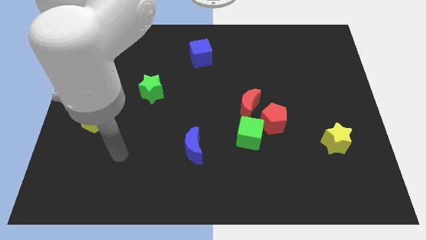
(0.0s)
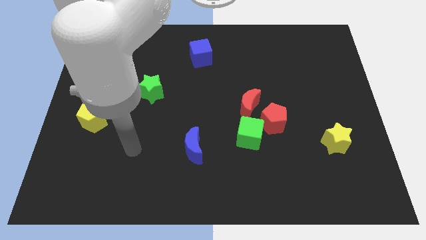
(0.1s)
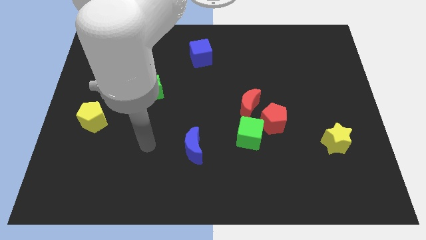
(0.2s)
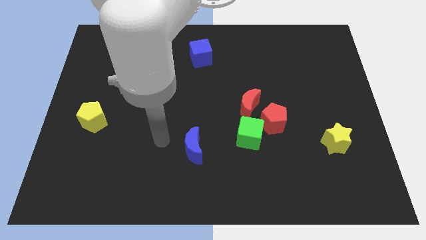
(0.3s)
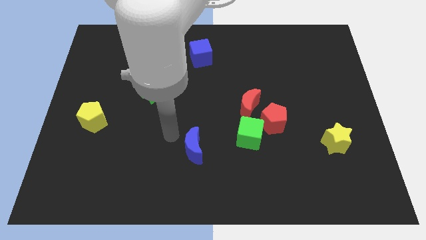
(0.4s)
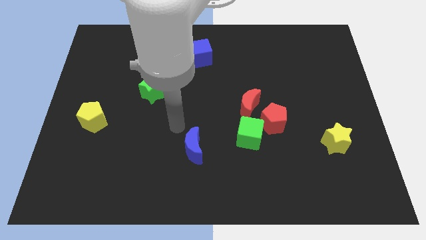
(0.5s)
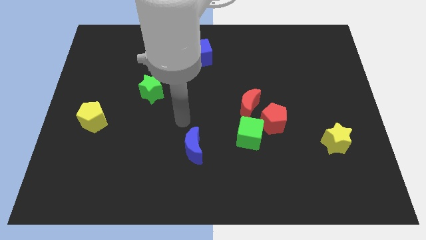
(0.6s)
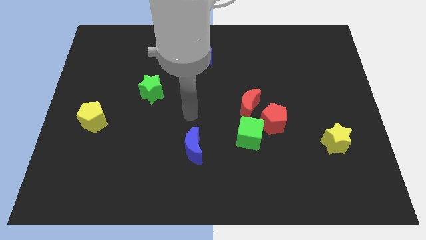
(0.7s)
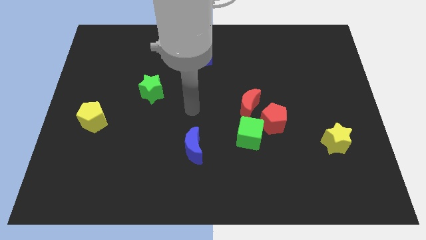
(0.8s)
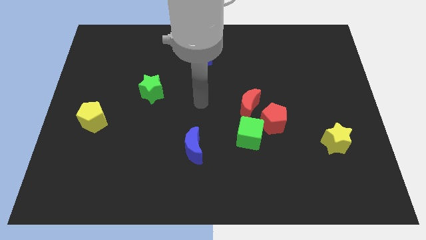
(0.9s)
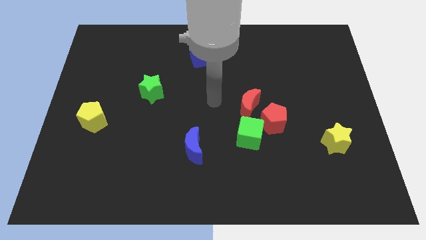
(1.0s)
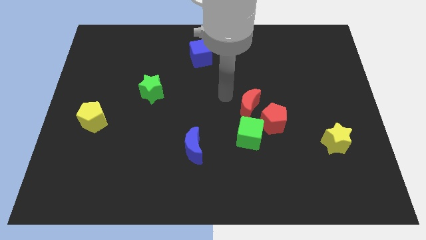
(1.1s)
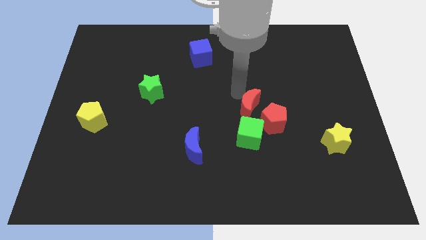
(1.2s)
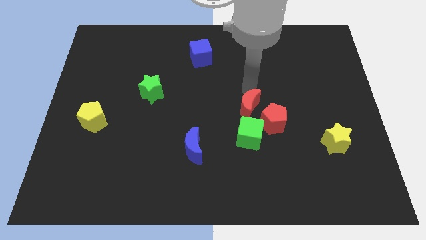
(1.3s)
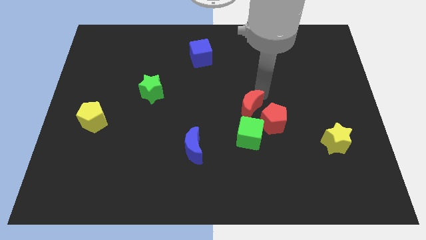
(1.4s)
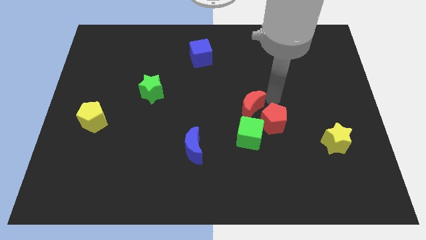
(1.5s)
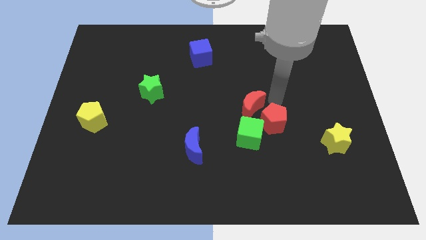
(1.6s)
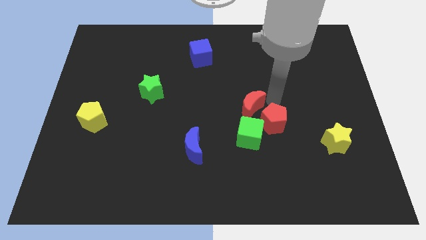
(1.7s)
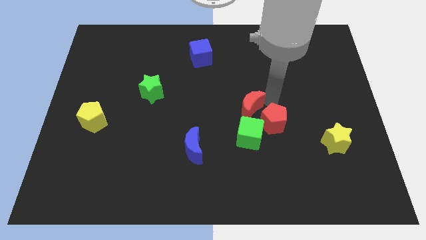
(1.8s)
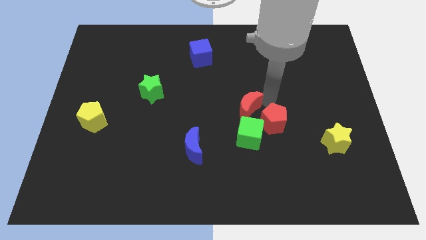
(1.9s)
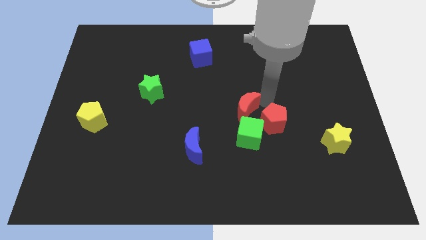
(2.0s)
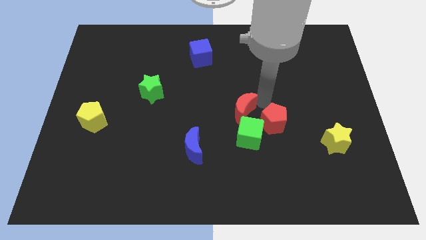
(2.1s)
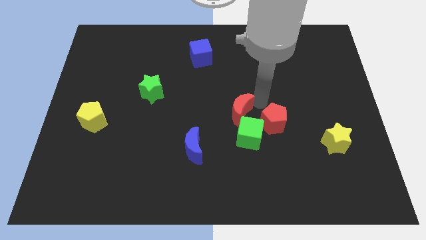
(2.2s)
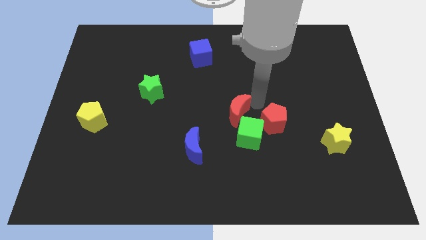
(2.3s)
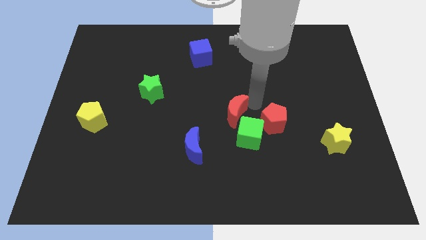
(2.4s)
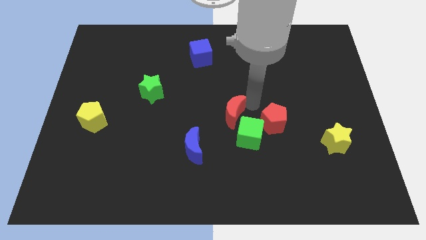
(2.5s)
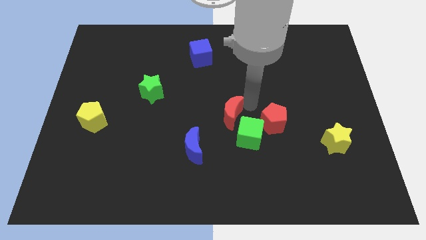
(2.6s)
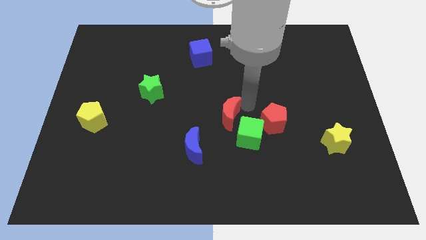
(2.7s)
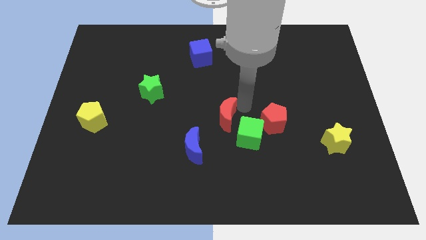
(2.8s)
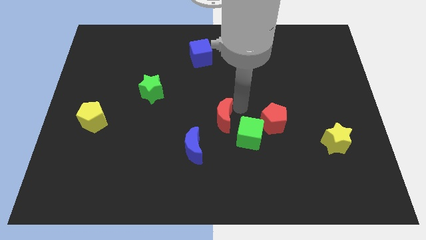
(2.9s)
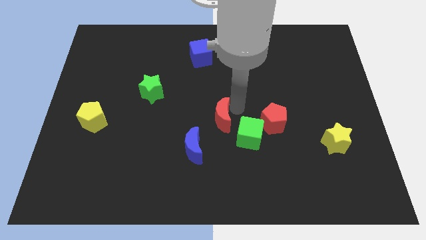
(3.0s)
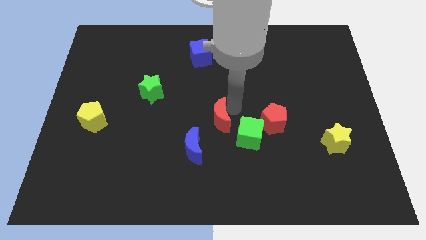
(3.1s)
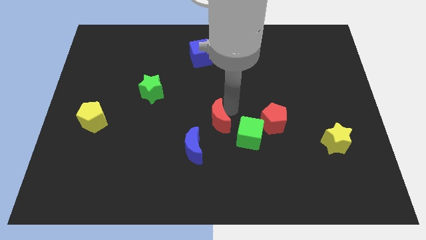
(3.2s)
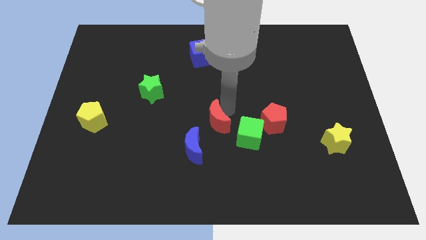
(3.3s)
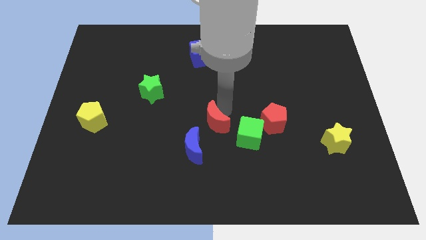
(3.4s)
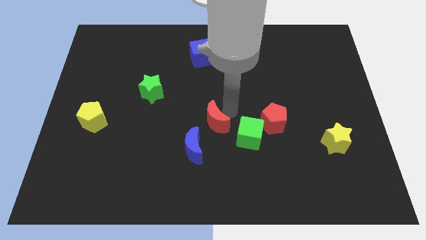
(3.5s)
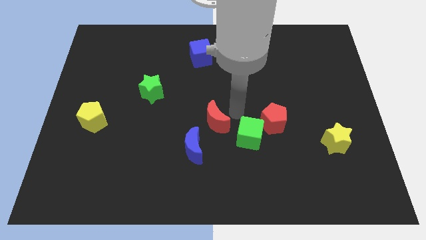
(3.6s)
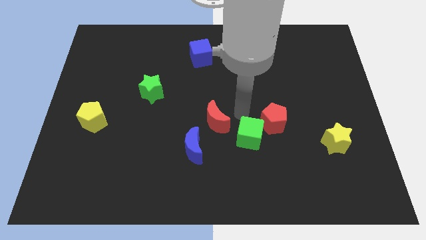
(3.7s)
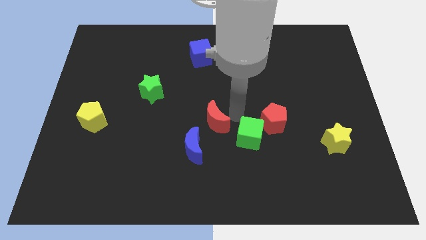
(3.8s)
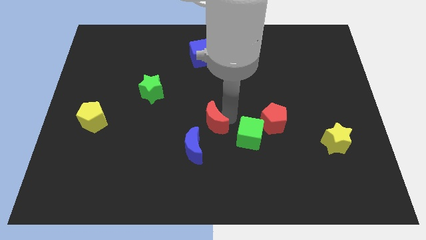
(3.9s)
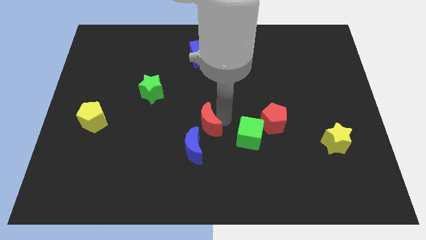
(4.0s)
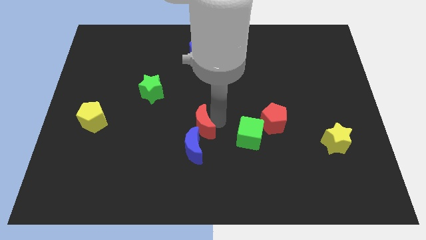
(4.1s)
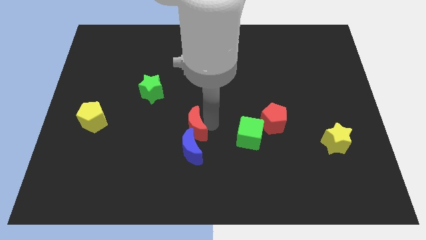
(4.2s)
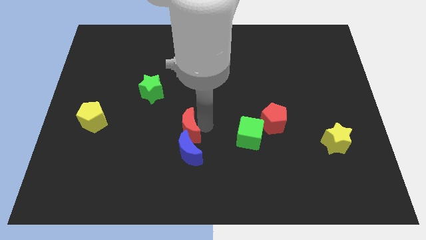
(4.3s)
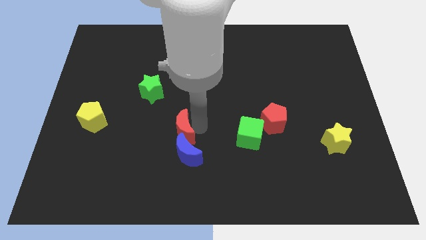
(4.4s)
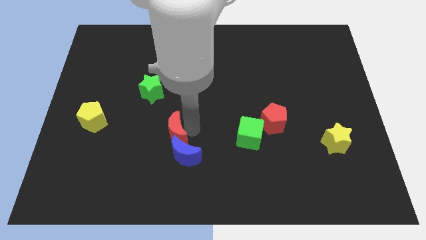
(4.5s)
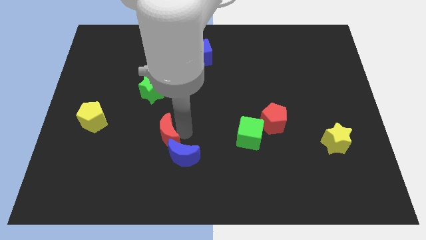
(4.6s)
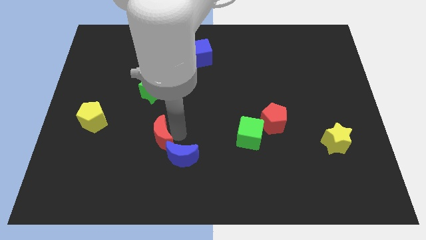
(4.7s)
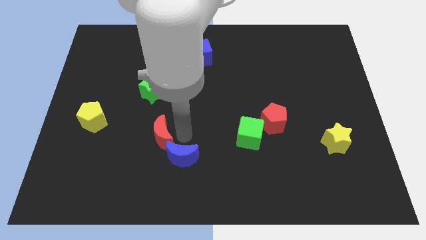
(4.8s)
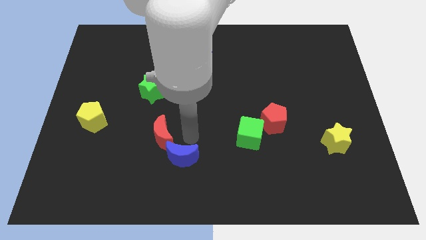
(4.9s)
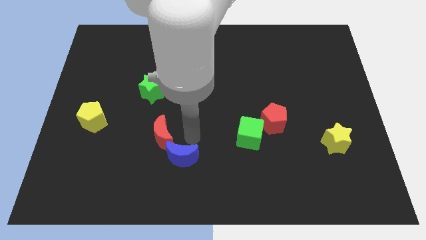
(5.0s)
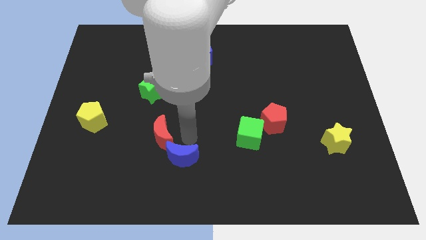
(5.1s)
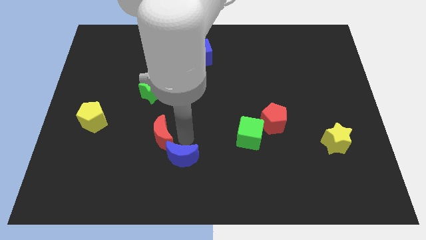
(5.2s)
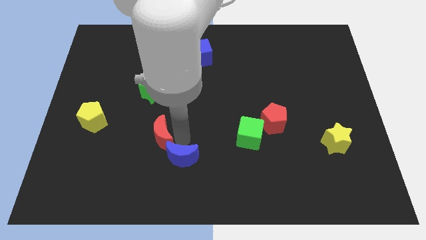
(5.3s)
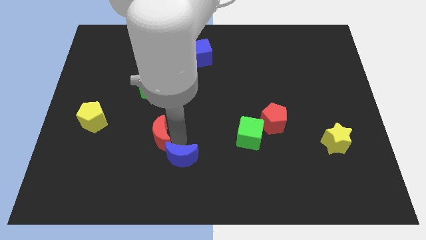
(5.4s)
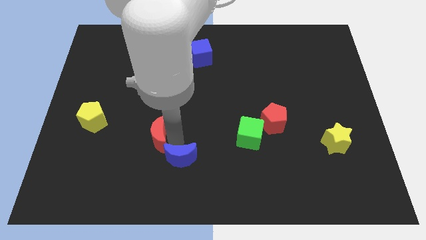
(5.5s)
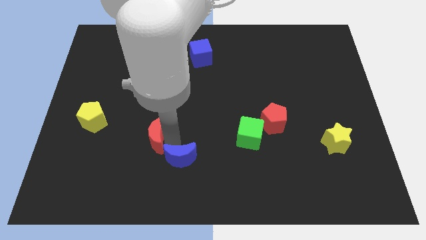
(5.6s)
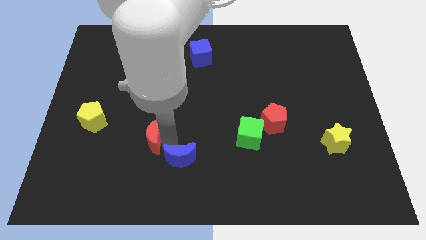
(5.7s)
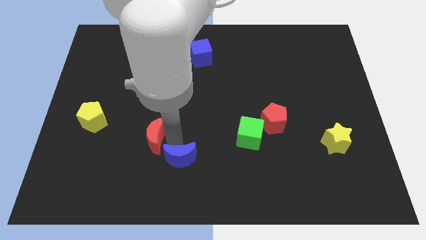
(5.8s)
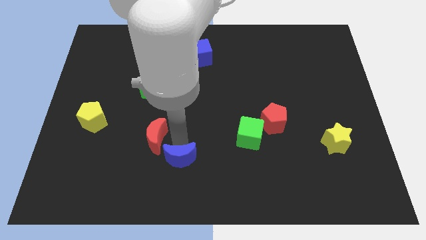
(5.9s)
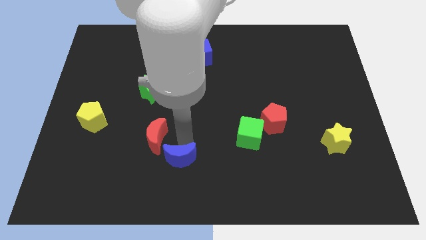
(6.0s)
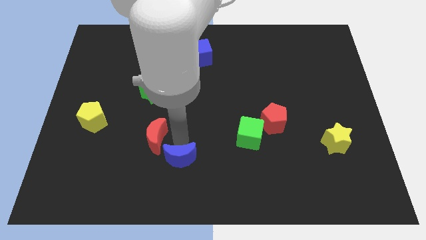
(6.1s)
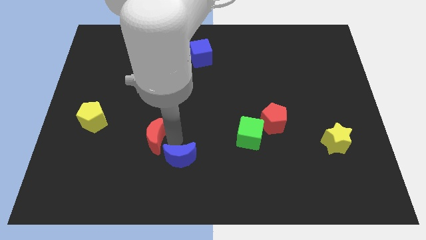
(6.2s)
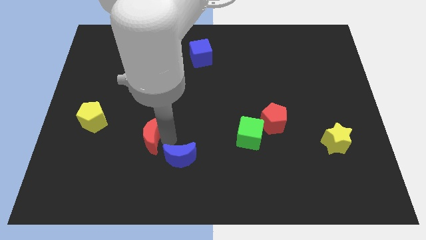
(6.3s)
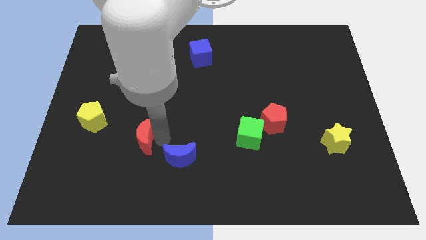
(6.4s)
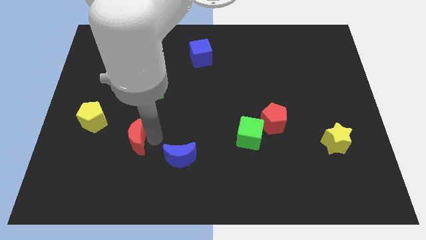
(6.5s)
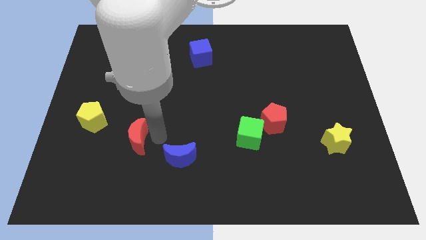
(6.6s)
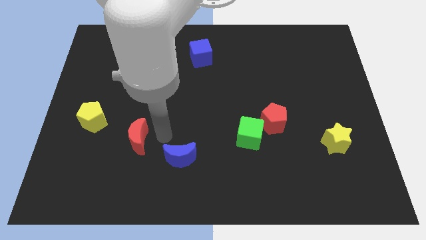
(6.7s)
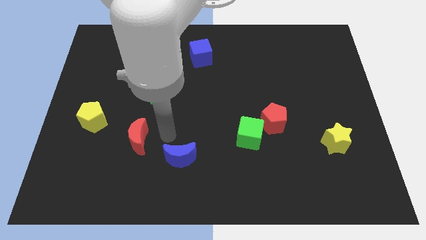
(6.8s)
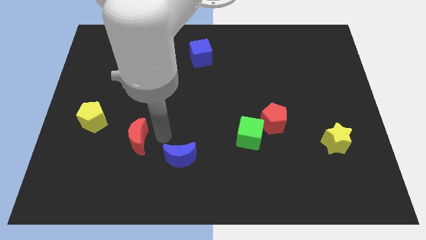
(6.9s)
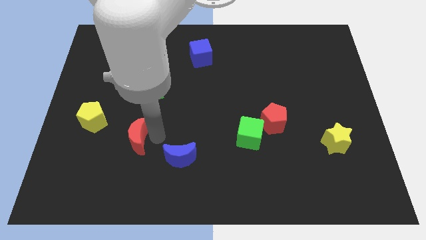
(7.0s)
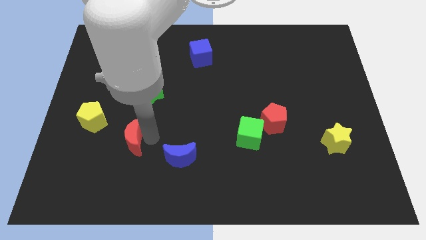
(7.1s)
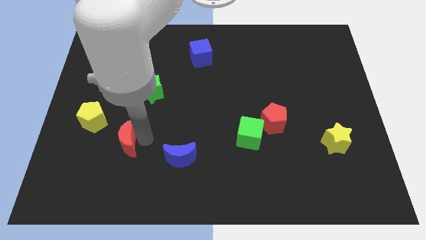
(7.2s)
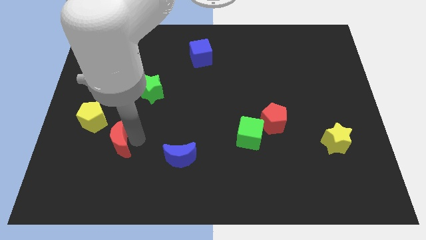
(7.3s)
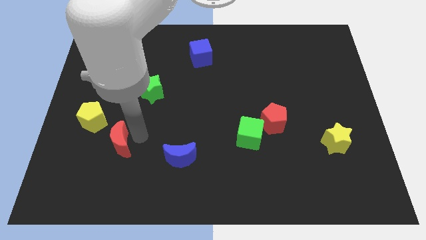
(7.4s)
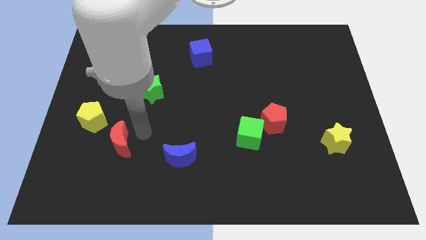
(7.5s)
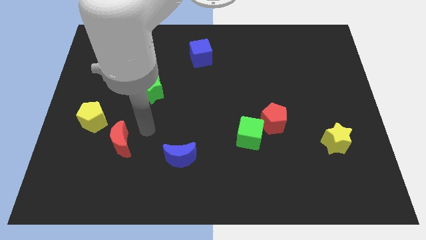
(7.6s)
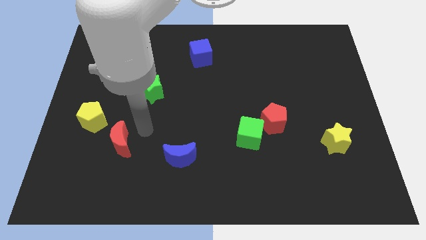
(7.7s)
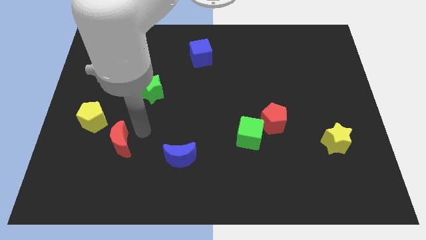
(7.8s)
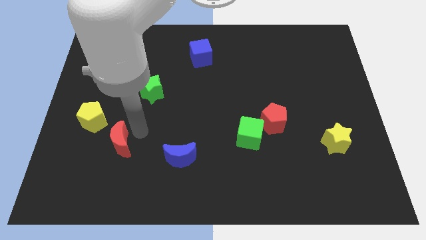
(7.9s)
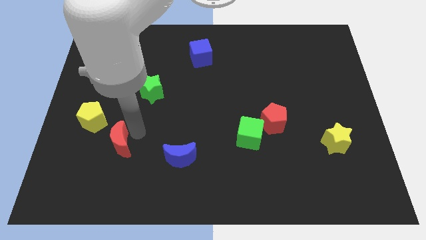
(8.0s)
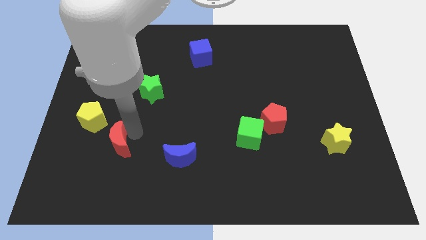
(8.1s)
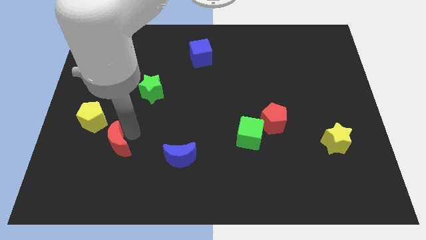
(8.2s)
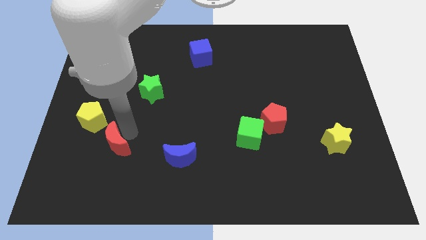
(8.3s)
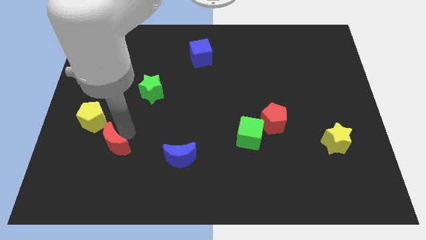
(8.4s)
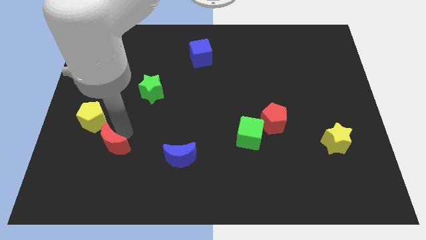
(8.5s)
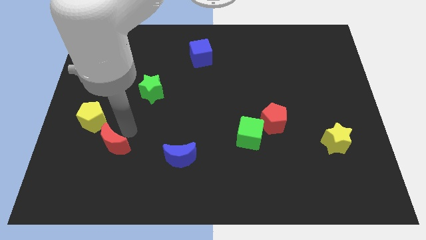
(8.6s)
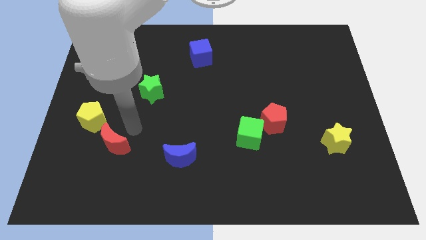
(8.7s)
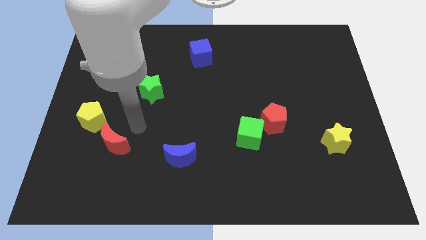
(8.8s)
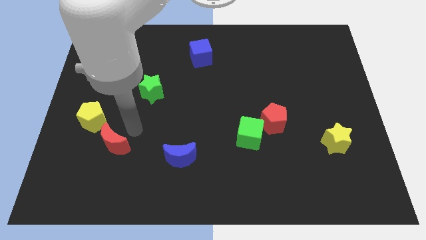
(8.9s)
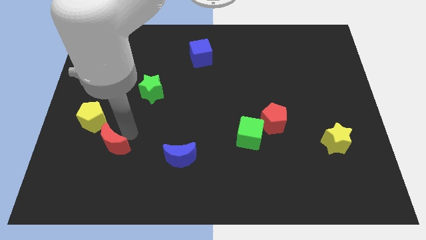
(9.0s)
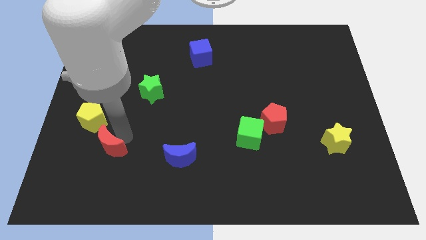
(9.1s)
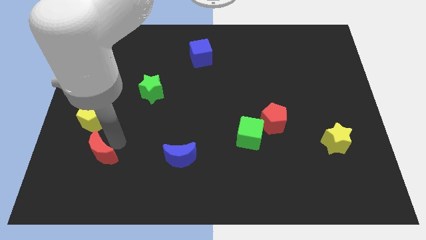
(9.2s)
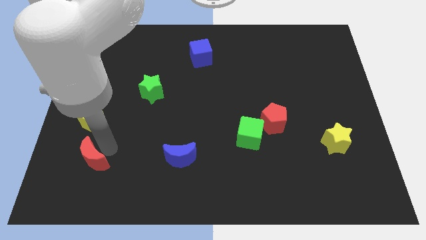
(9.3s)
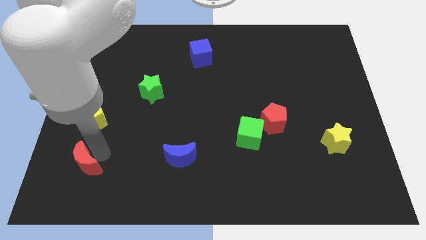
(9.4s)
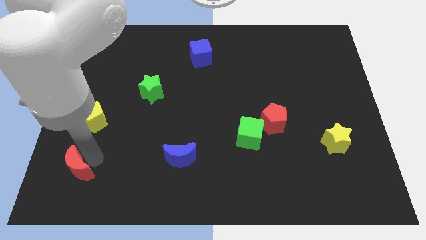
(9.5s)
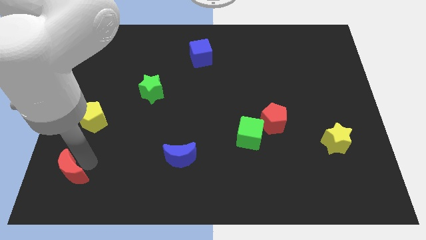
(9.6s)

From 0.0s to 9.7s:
move the red moon to the lower left corner
